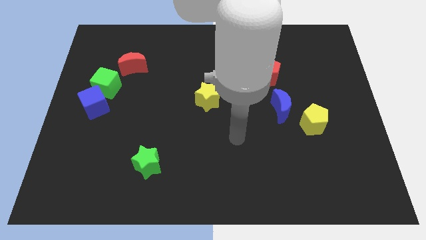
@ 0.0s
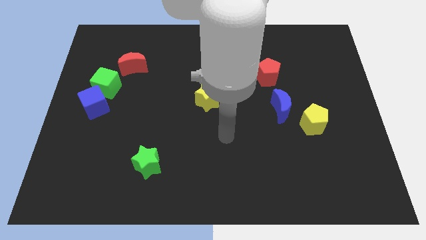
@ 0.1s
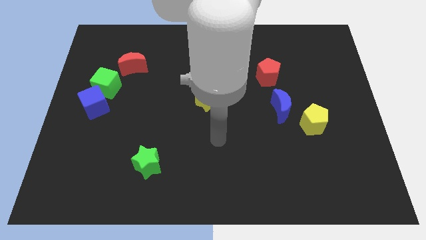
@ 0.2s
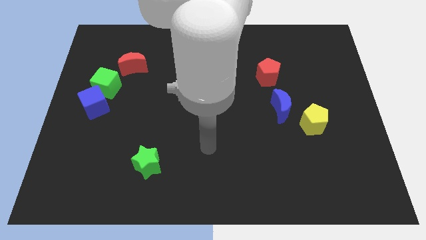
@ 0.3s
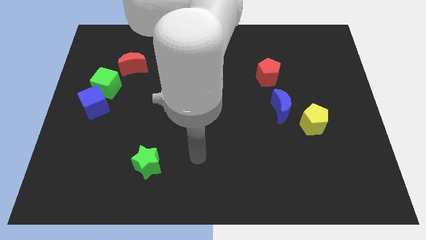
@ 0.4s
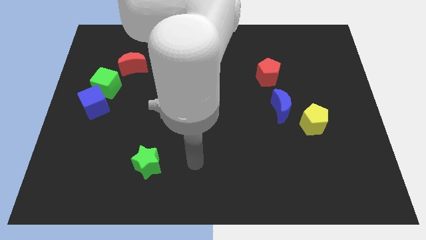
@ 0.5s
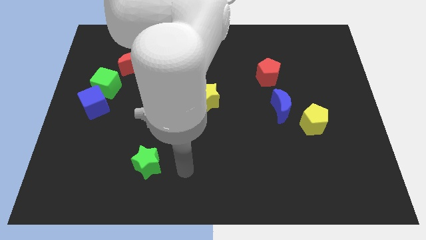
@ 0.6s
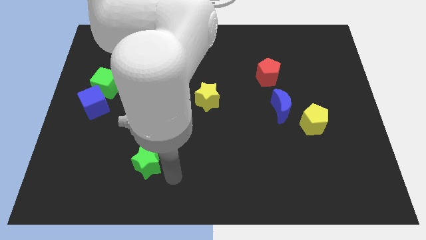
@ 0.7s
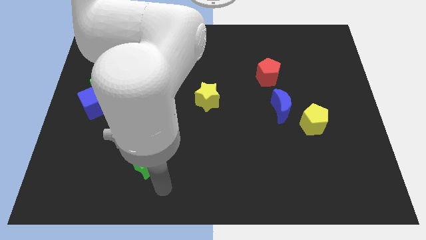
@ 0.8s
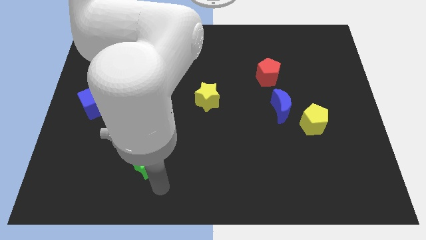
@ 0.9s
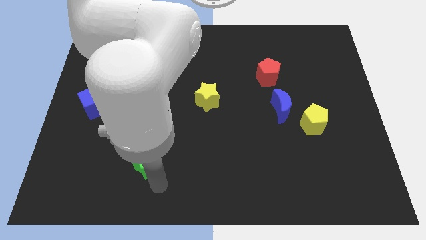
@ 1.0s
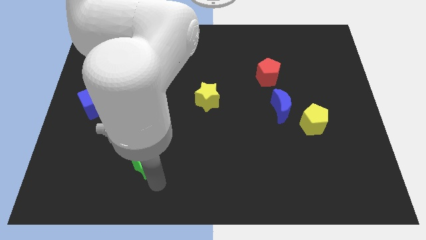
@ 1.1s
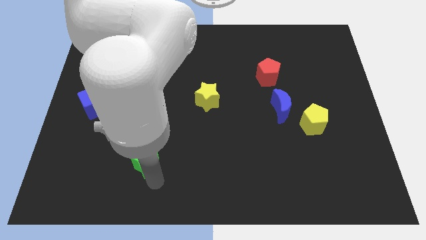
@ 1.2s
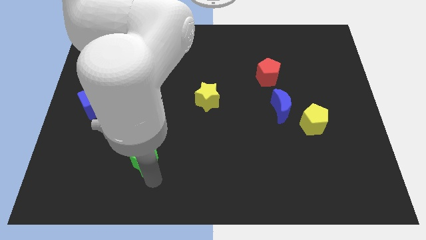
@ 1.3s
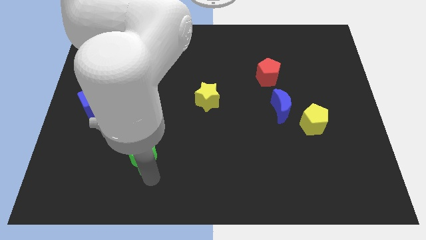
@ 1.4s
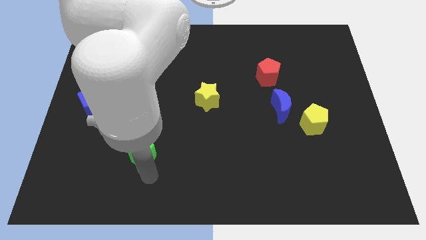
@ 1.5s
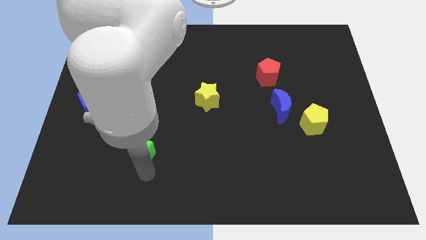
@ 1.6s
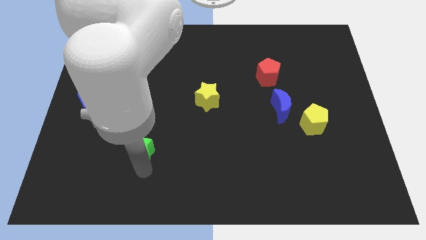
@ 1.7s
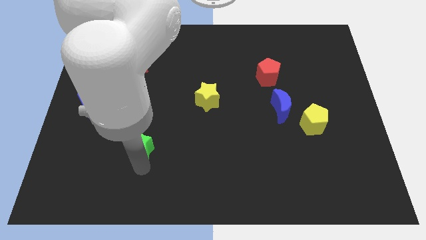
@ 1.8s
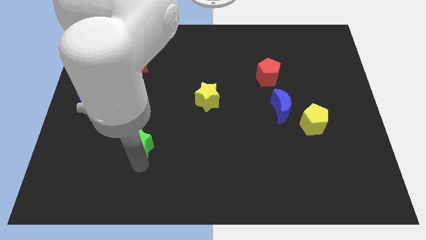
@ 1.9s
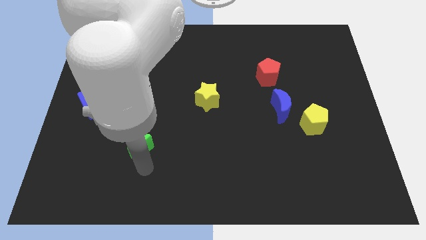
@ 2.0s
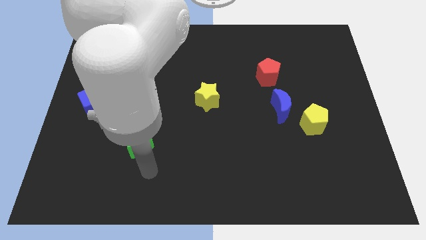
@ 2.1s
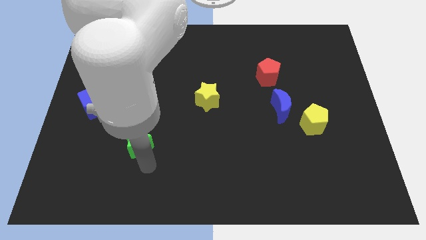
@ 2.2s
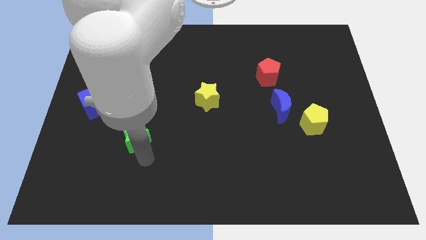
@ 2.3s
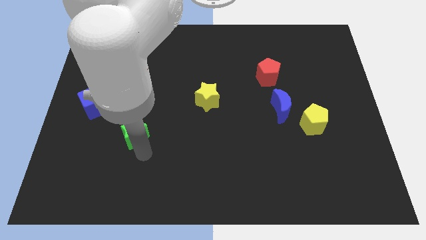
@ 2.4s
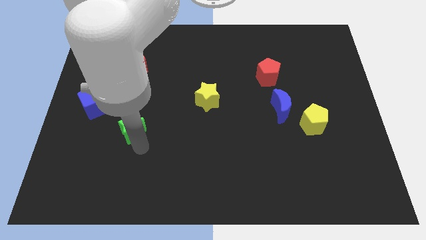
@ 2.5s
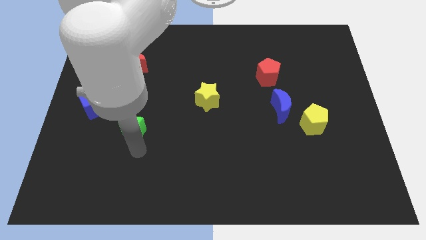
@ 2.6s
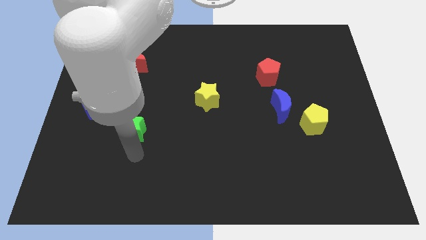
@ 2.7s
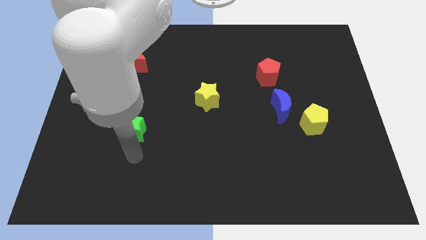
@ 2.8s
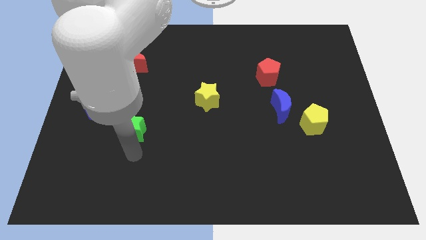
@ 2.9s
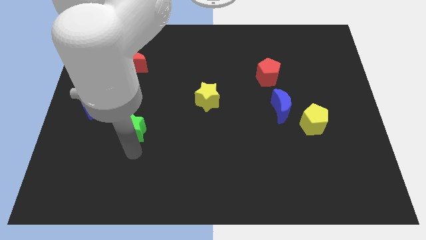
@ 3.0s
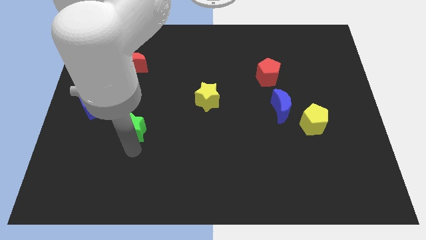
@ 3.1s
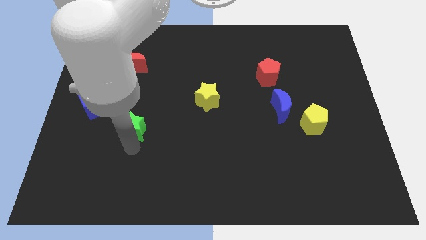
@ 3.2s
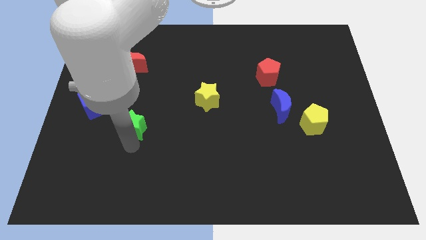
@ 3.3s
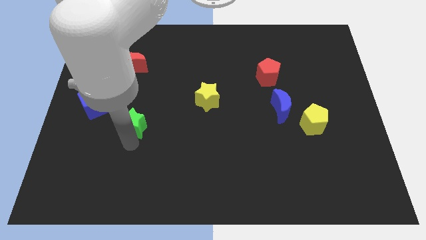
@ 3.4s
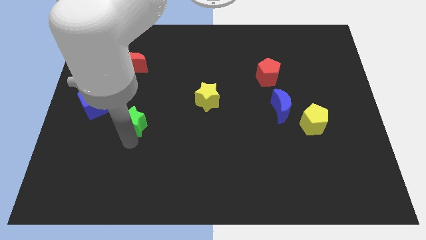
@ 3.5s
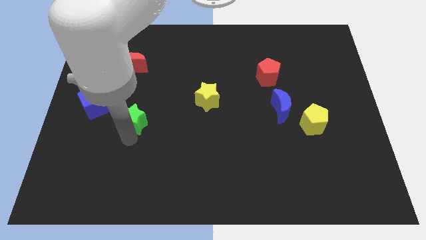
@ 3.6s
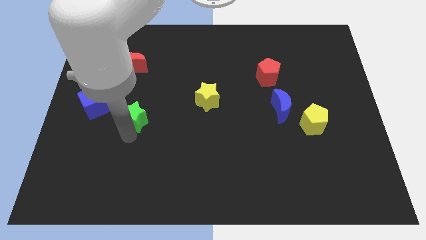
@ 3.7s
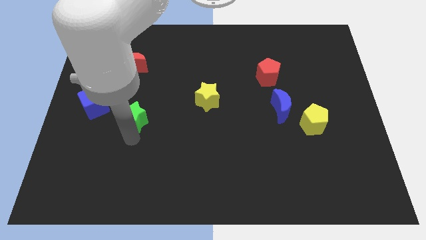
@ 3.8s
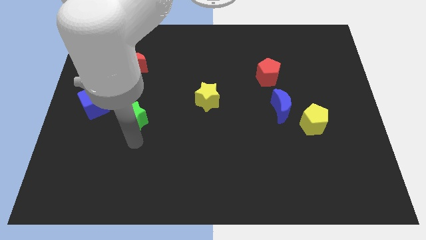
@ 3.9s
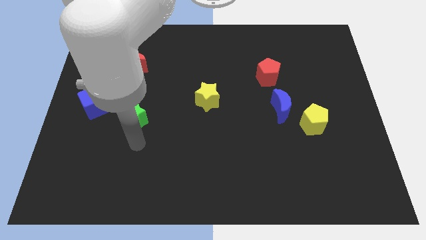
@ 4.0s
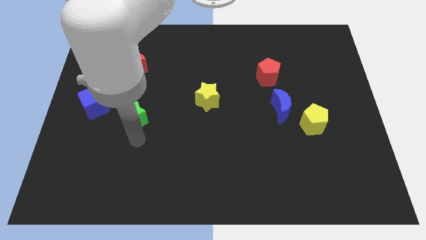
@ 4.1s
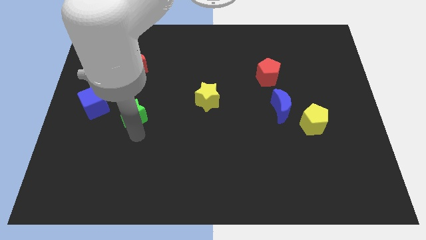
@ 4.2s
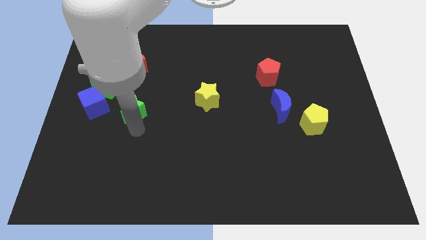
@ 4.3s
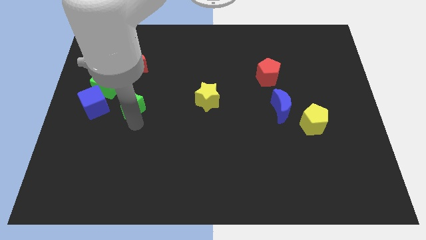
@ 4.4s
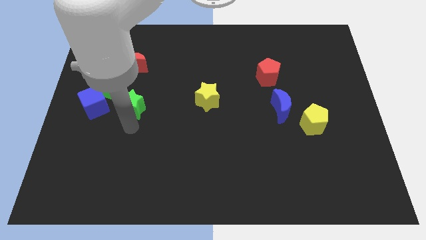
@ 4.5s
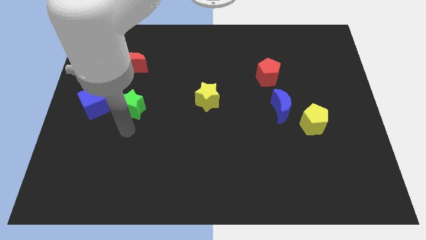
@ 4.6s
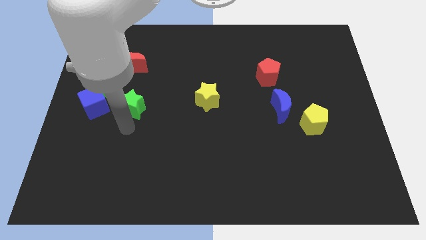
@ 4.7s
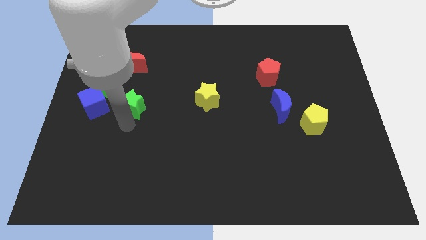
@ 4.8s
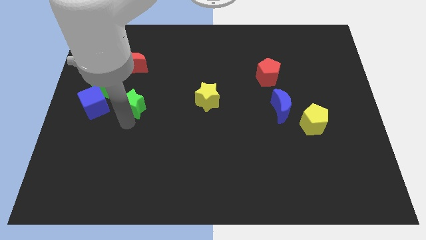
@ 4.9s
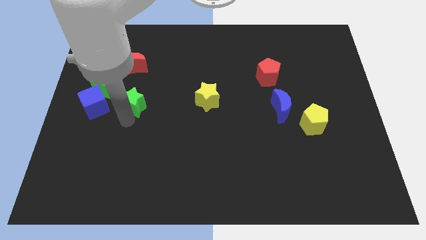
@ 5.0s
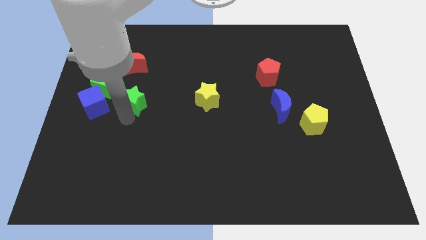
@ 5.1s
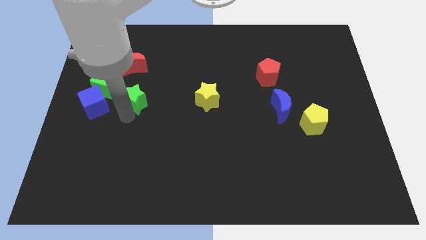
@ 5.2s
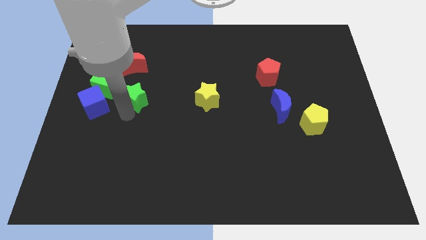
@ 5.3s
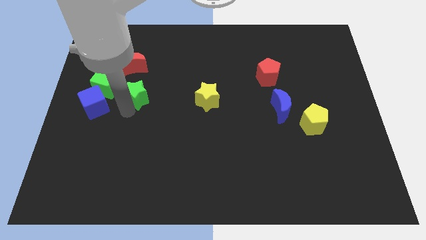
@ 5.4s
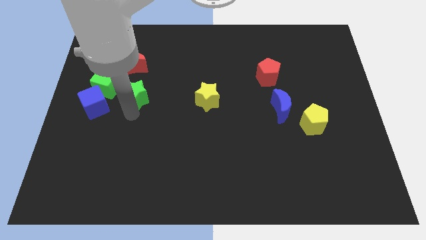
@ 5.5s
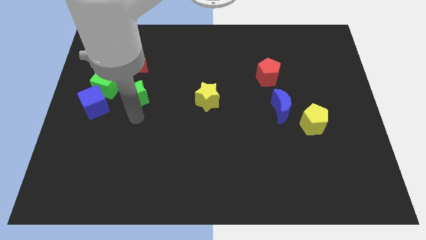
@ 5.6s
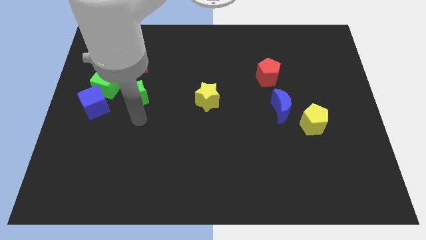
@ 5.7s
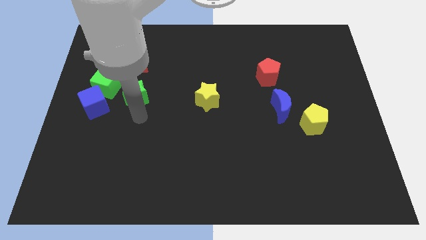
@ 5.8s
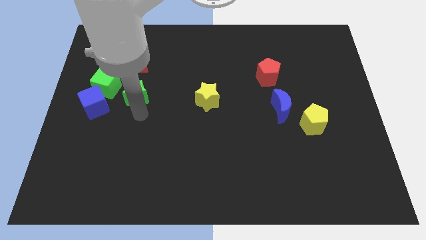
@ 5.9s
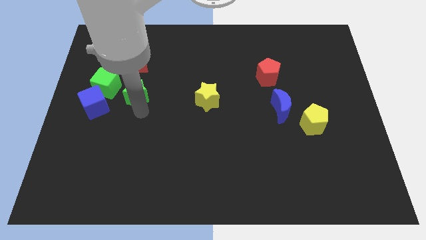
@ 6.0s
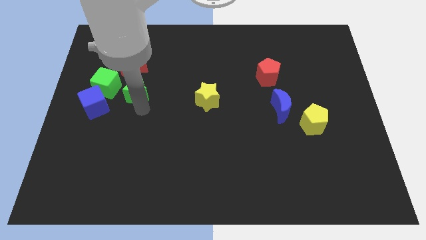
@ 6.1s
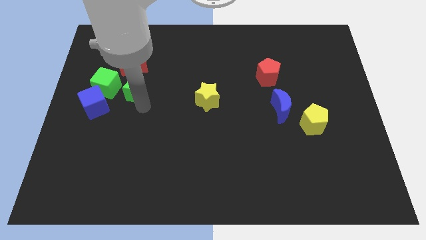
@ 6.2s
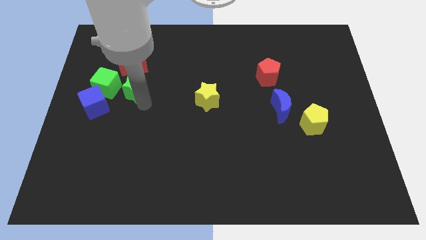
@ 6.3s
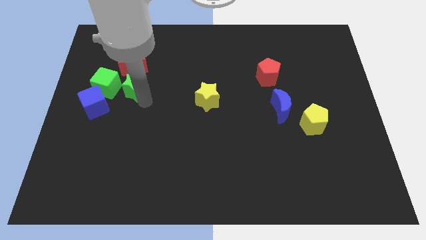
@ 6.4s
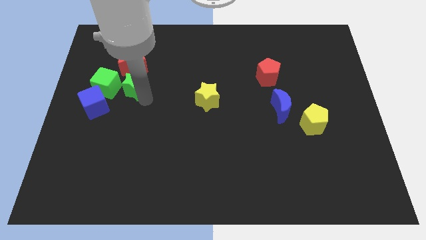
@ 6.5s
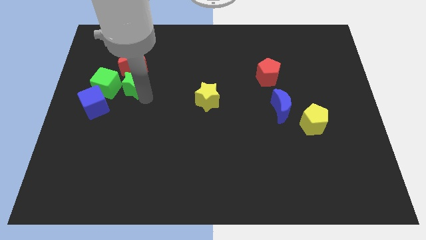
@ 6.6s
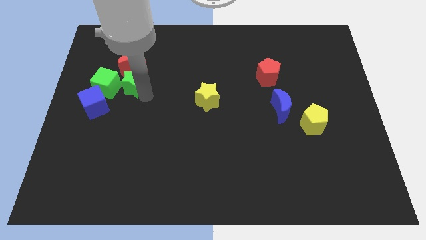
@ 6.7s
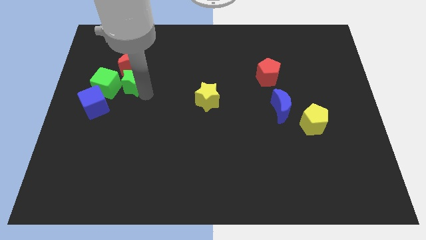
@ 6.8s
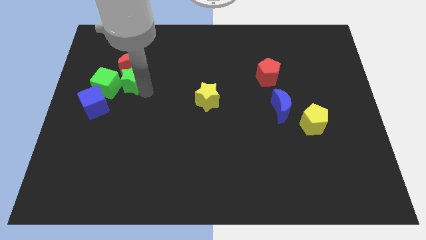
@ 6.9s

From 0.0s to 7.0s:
move the green star towards the red moon

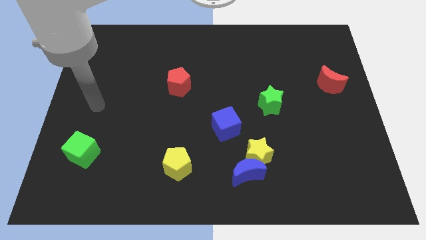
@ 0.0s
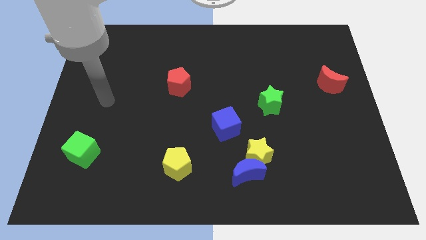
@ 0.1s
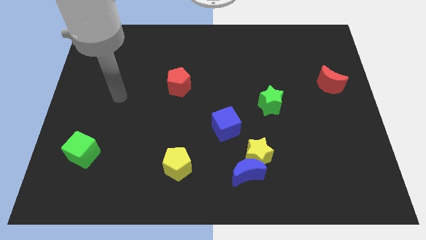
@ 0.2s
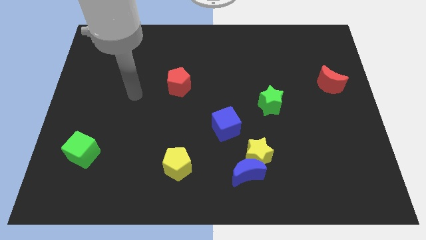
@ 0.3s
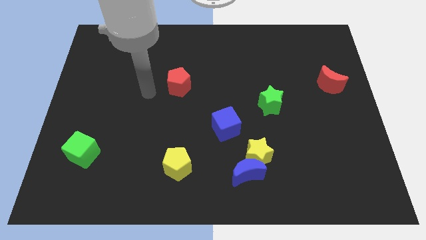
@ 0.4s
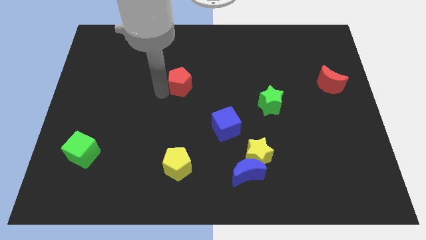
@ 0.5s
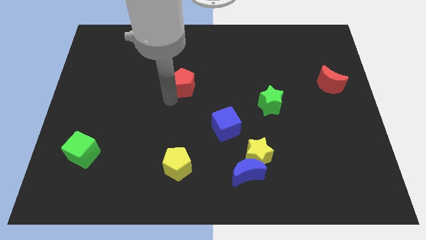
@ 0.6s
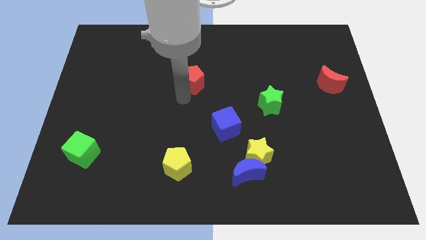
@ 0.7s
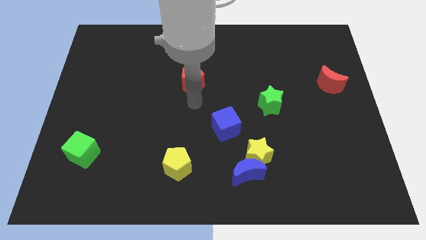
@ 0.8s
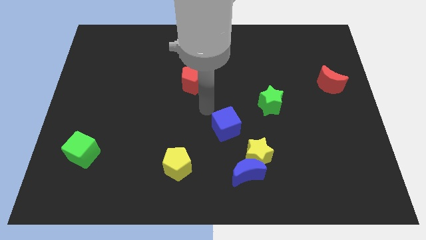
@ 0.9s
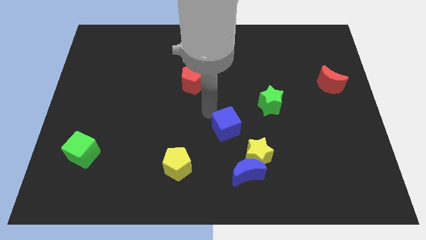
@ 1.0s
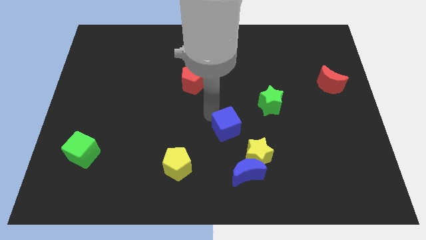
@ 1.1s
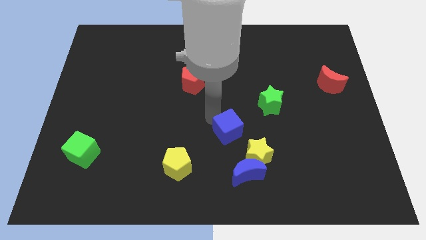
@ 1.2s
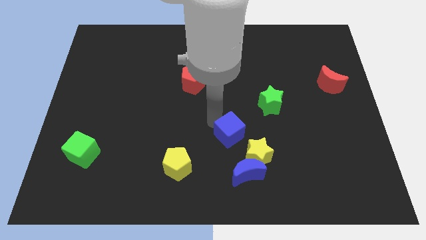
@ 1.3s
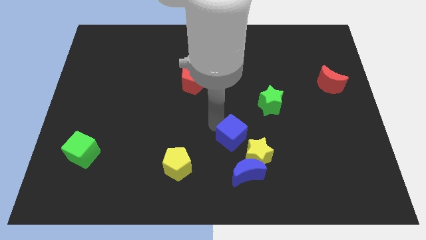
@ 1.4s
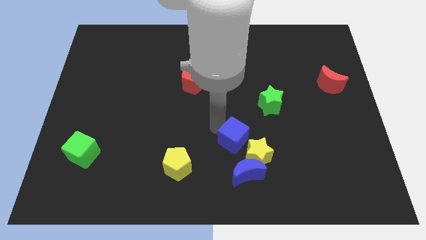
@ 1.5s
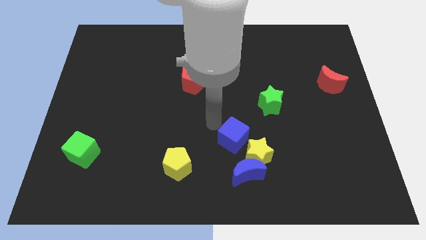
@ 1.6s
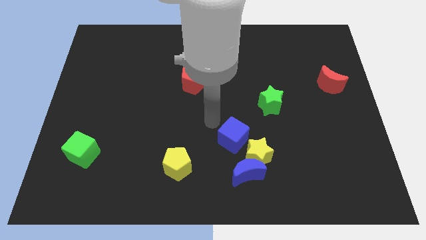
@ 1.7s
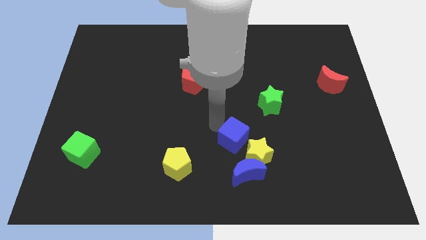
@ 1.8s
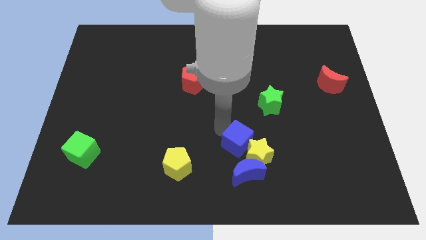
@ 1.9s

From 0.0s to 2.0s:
slide the blue cube next to the yellow star
